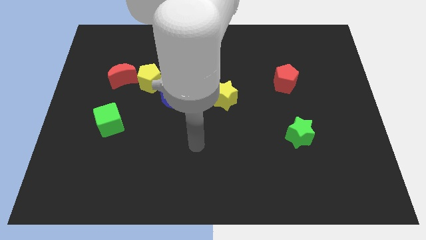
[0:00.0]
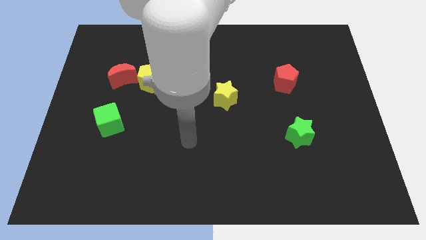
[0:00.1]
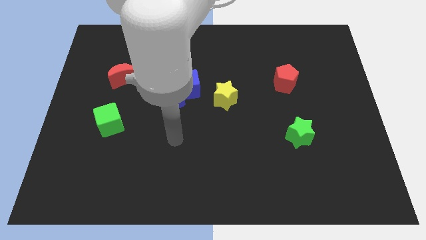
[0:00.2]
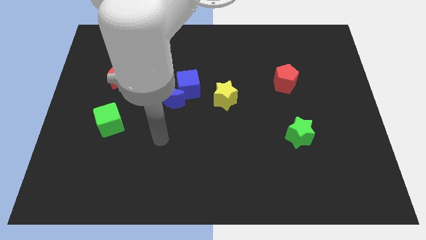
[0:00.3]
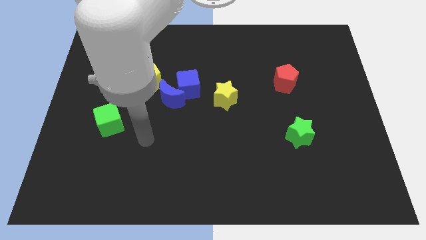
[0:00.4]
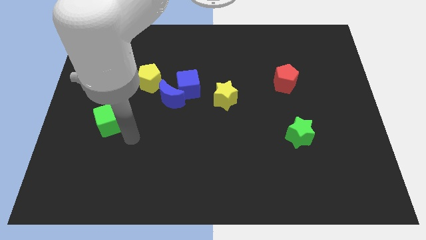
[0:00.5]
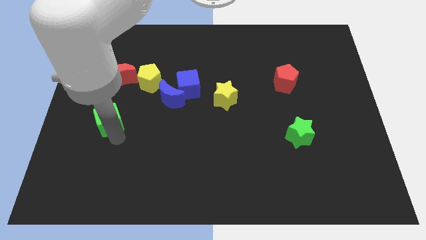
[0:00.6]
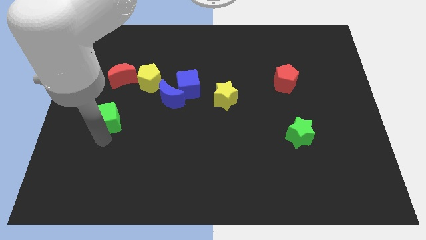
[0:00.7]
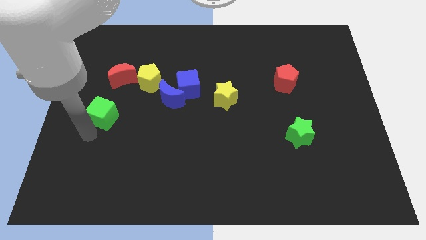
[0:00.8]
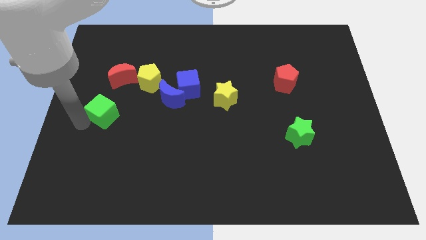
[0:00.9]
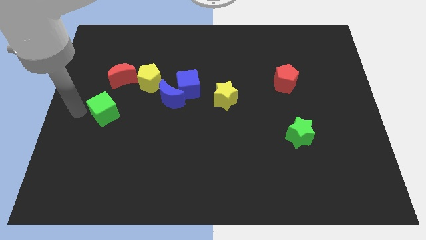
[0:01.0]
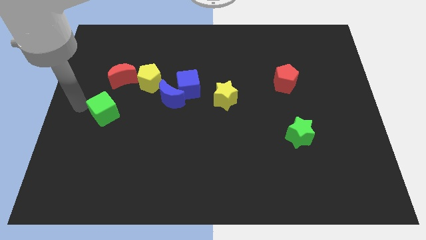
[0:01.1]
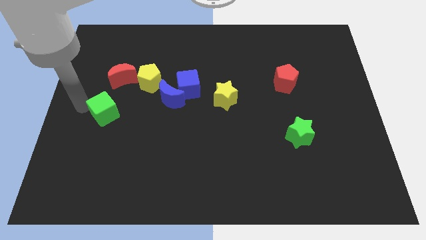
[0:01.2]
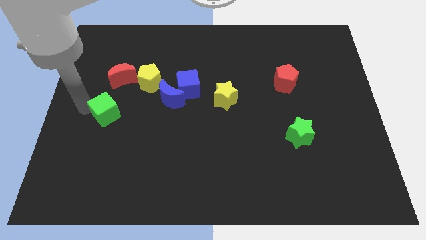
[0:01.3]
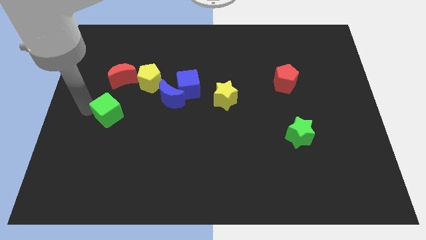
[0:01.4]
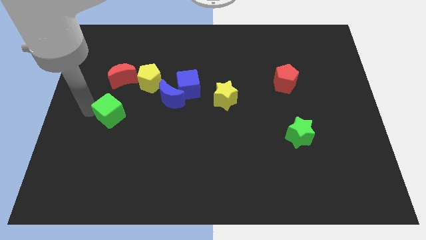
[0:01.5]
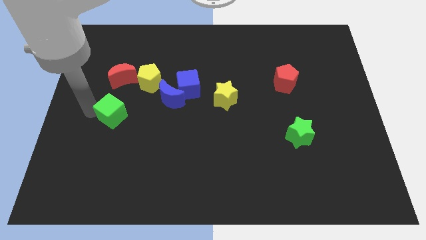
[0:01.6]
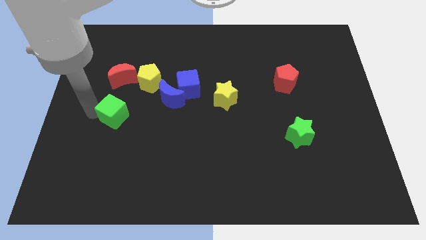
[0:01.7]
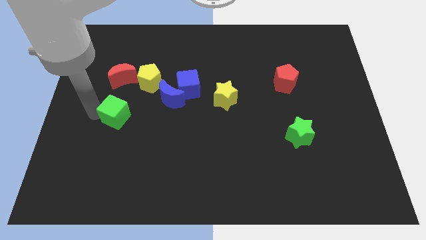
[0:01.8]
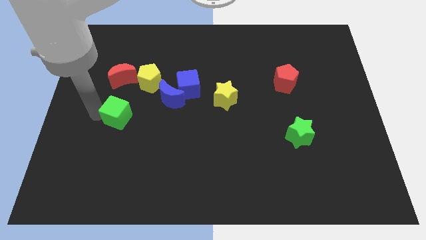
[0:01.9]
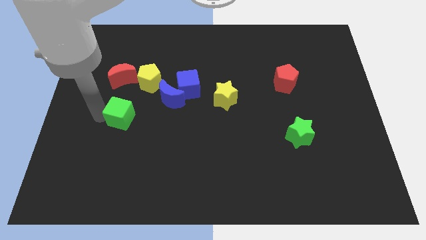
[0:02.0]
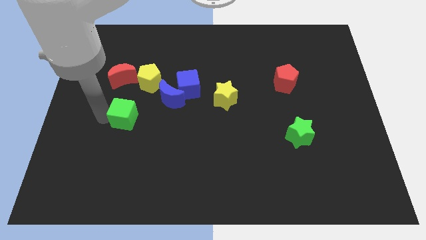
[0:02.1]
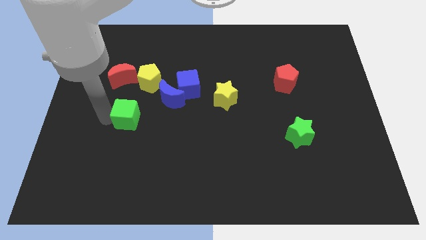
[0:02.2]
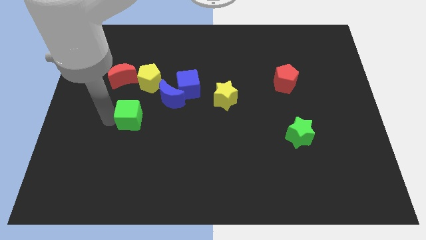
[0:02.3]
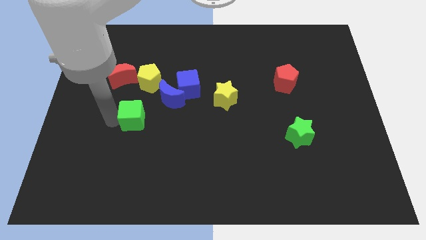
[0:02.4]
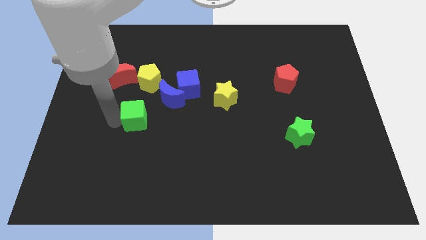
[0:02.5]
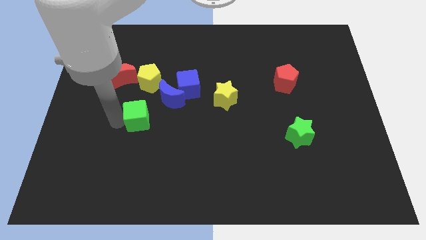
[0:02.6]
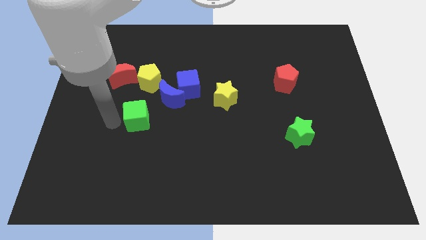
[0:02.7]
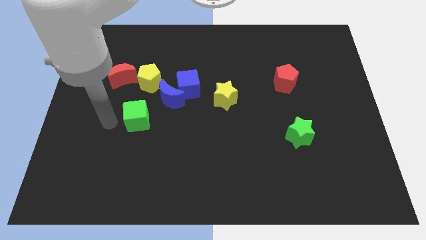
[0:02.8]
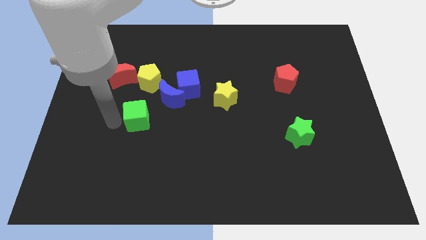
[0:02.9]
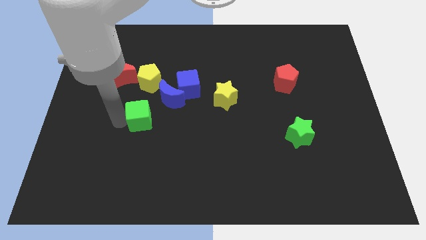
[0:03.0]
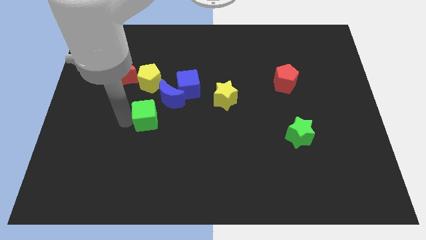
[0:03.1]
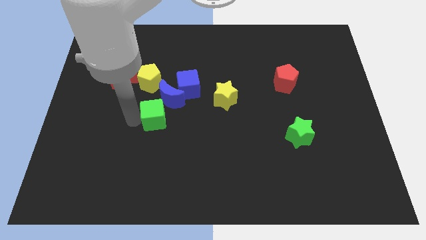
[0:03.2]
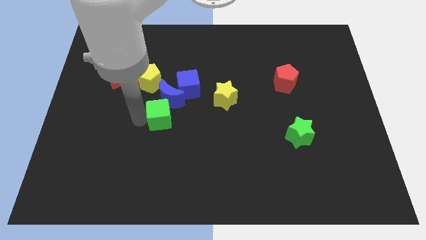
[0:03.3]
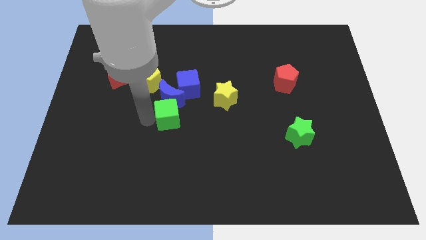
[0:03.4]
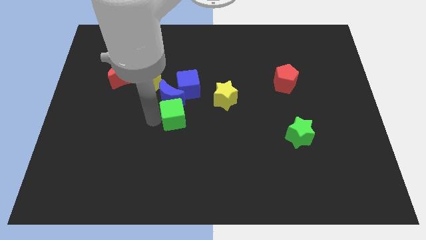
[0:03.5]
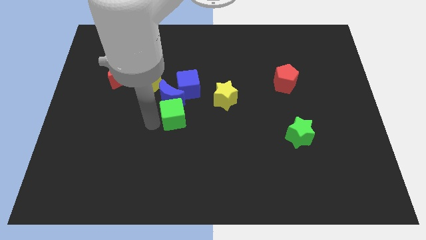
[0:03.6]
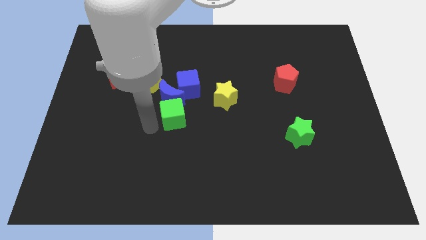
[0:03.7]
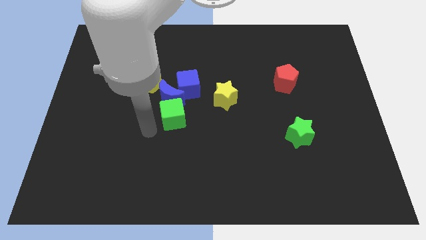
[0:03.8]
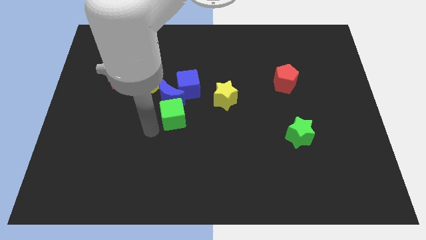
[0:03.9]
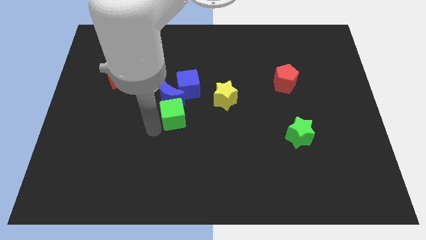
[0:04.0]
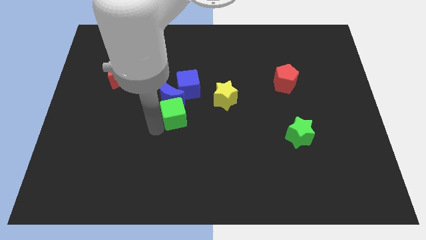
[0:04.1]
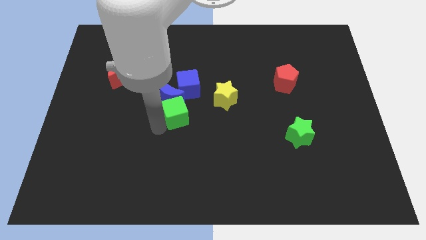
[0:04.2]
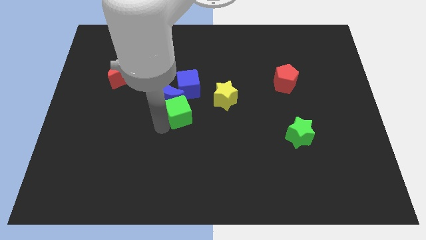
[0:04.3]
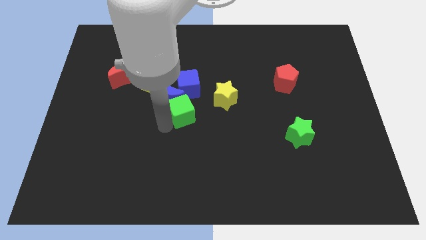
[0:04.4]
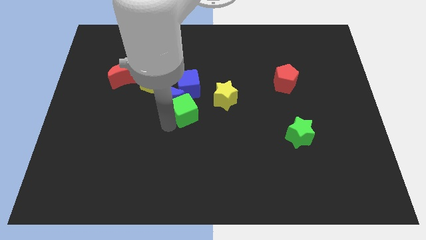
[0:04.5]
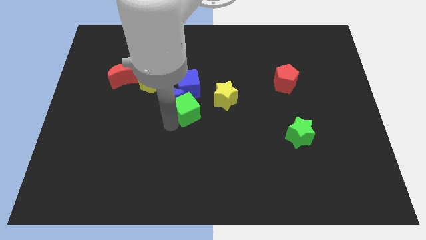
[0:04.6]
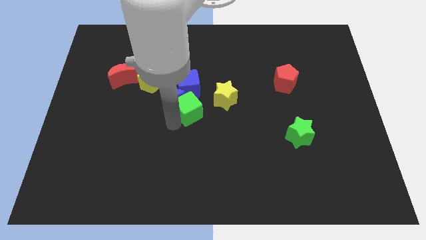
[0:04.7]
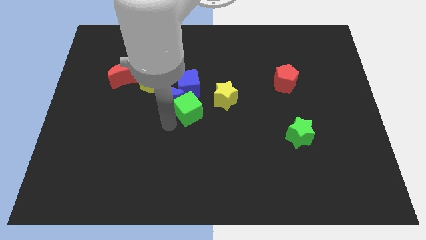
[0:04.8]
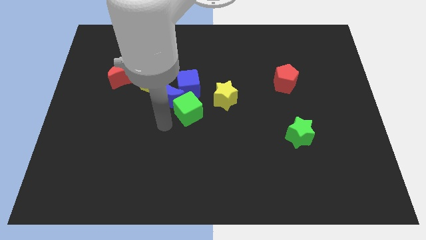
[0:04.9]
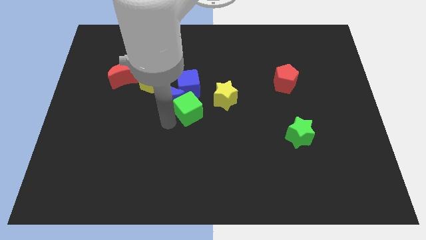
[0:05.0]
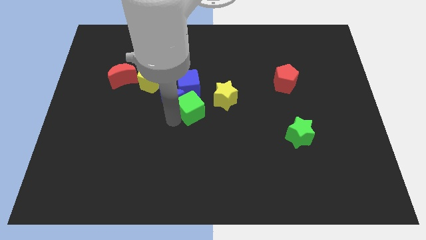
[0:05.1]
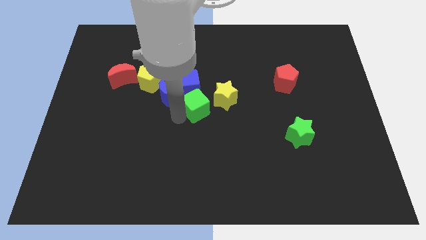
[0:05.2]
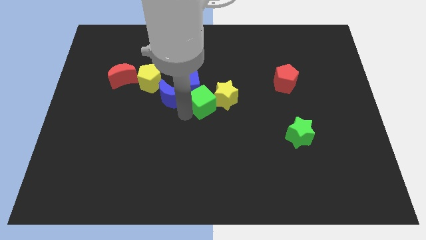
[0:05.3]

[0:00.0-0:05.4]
push the green cube to the yellow star

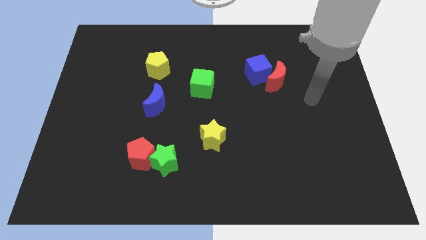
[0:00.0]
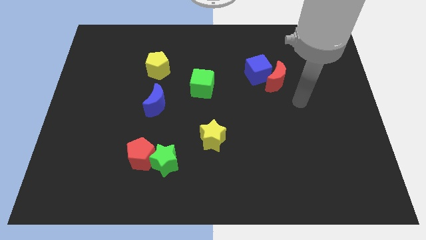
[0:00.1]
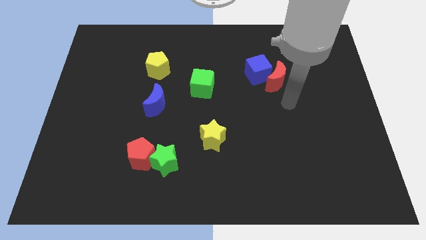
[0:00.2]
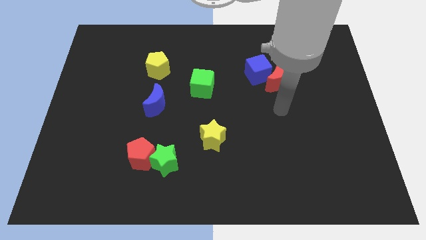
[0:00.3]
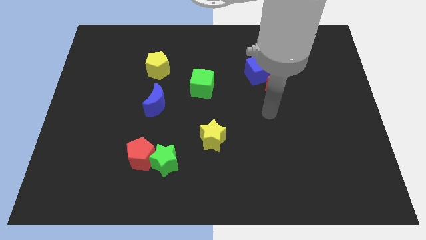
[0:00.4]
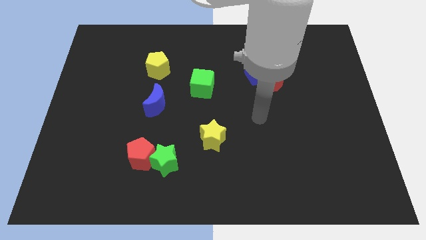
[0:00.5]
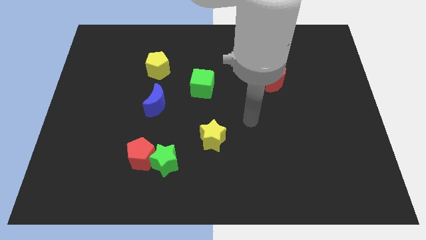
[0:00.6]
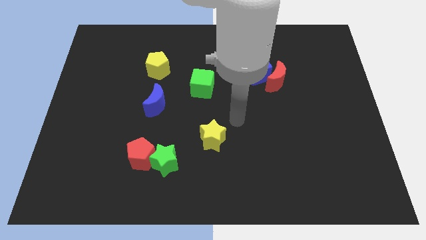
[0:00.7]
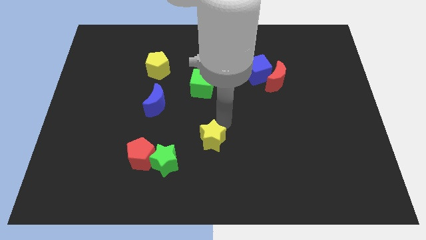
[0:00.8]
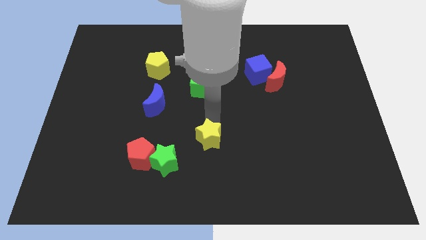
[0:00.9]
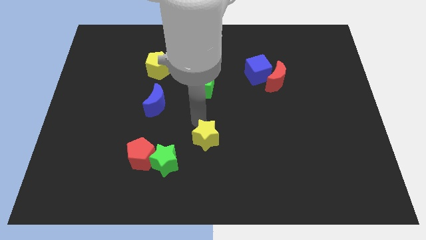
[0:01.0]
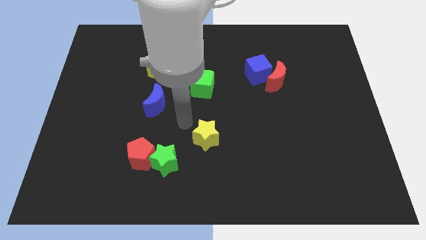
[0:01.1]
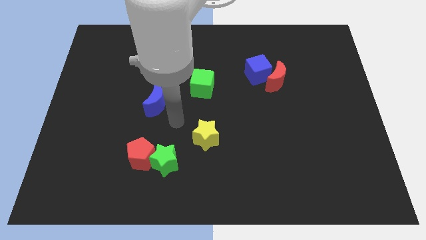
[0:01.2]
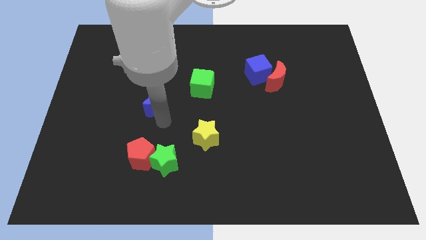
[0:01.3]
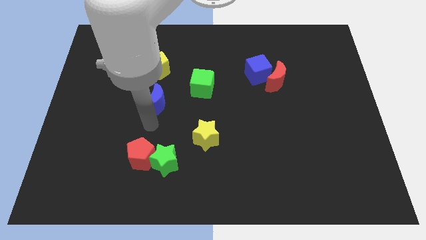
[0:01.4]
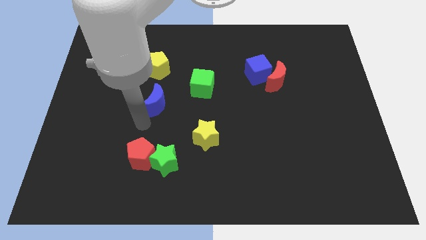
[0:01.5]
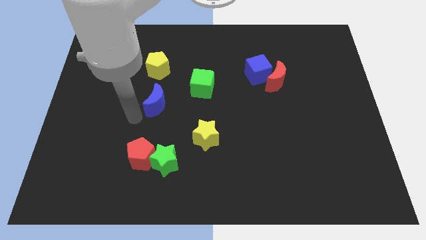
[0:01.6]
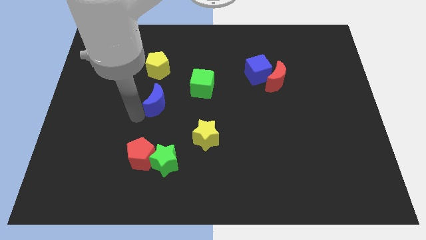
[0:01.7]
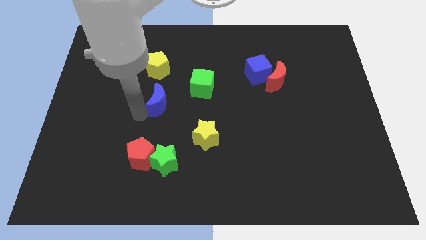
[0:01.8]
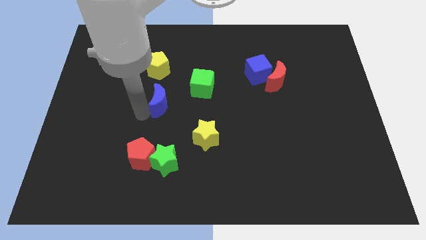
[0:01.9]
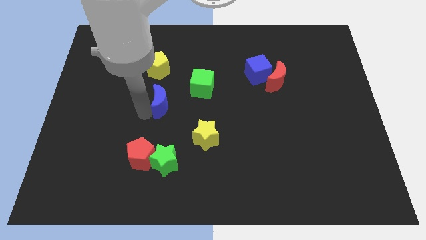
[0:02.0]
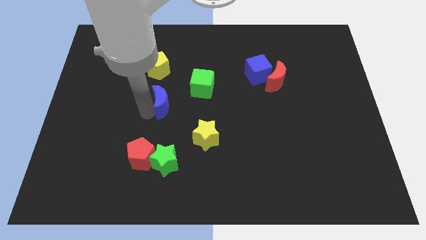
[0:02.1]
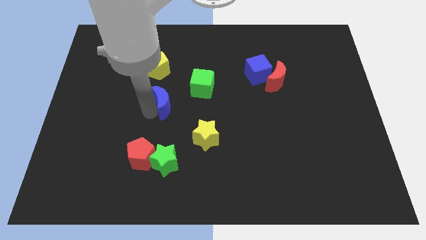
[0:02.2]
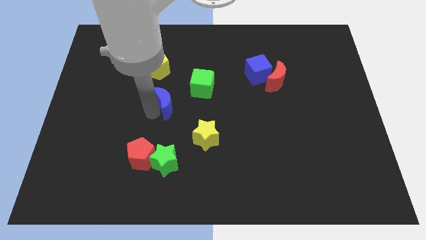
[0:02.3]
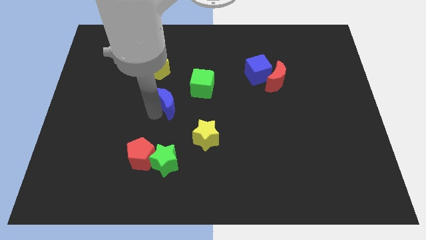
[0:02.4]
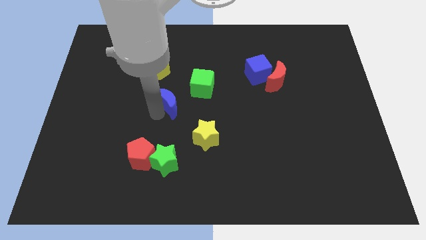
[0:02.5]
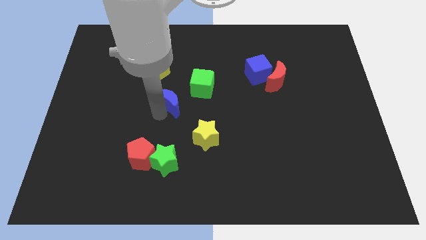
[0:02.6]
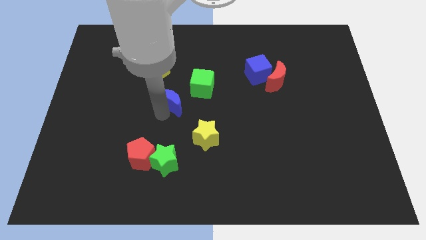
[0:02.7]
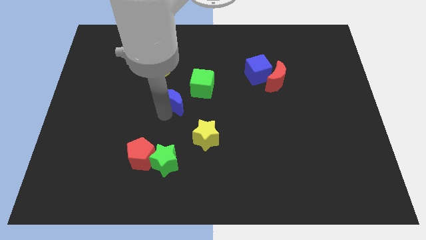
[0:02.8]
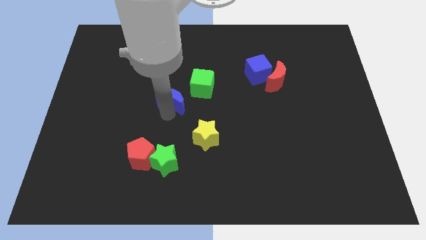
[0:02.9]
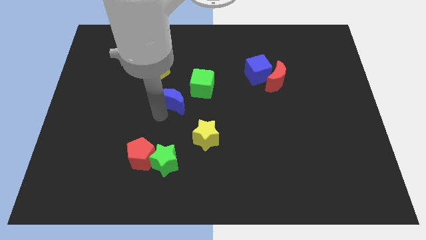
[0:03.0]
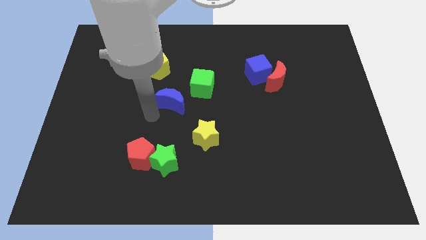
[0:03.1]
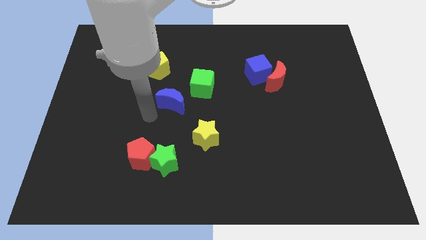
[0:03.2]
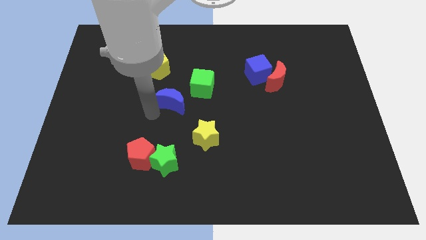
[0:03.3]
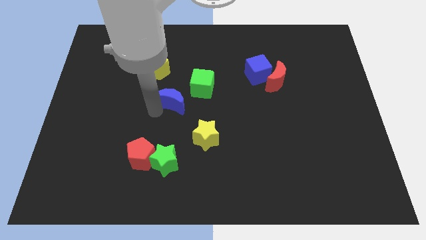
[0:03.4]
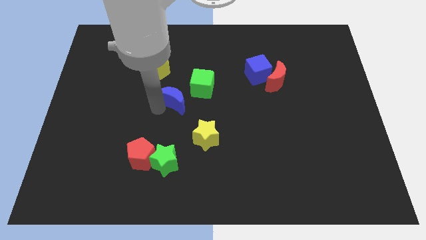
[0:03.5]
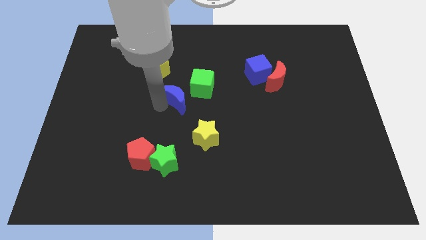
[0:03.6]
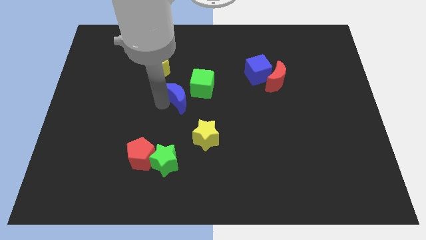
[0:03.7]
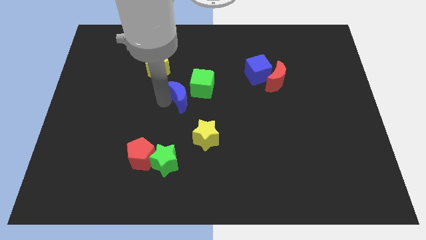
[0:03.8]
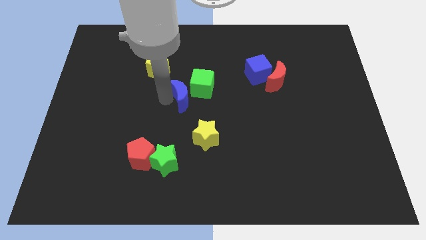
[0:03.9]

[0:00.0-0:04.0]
slide the blue moon close to the green cube
